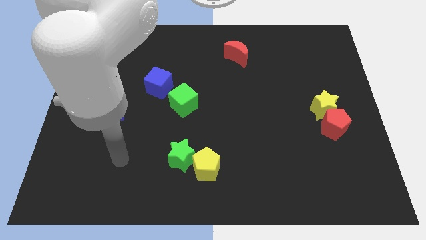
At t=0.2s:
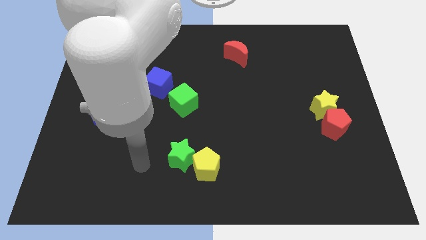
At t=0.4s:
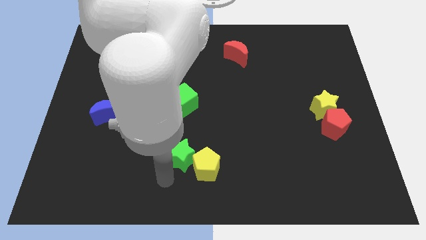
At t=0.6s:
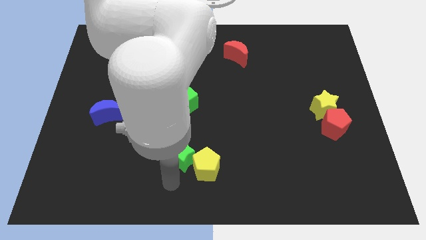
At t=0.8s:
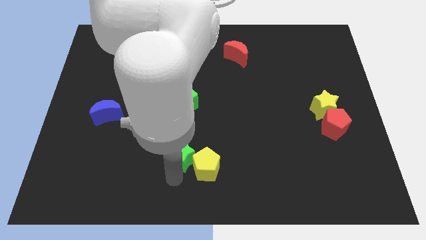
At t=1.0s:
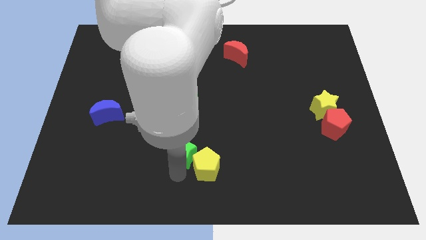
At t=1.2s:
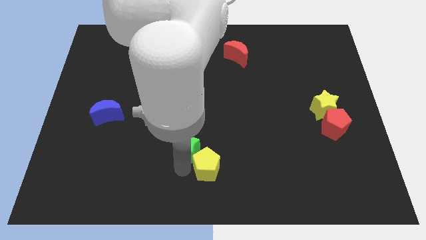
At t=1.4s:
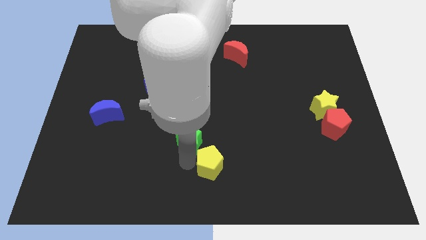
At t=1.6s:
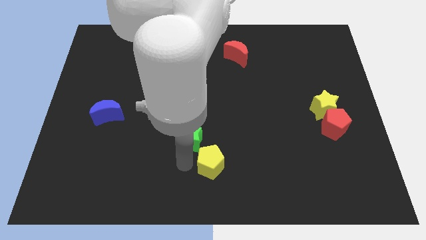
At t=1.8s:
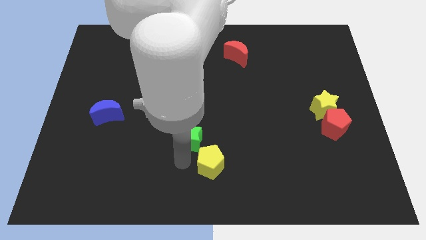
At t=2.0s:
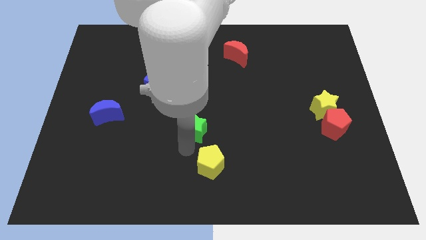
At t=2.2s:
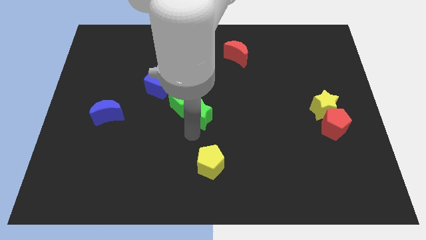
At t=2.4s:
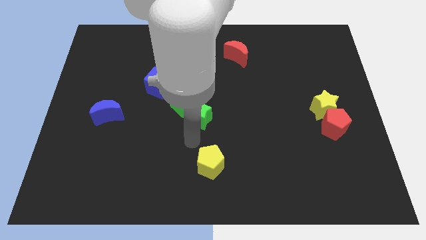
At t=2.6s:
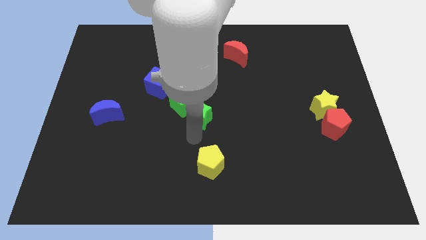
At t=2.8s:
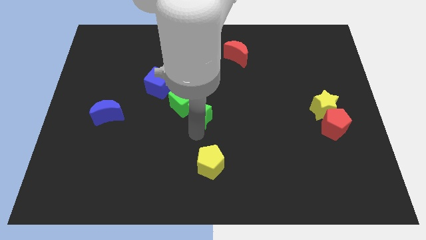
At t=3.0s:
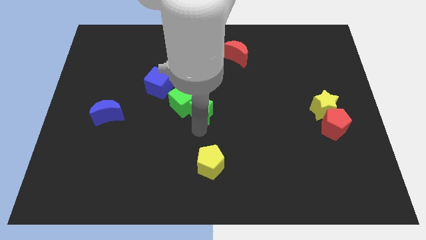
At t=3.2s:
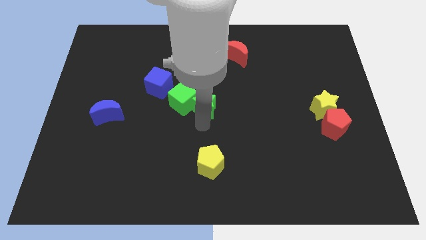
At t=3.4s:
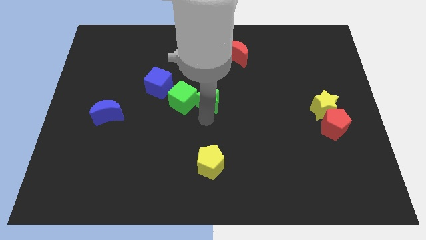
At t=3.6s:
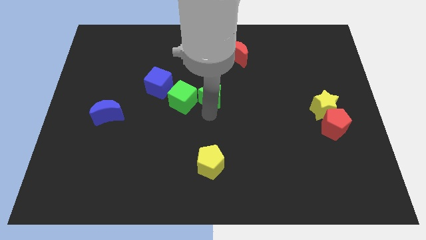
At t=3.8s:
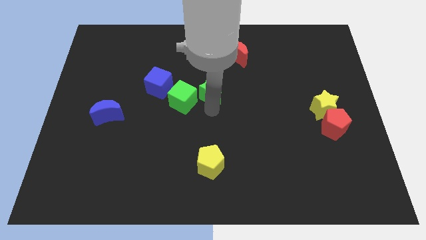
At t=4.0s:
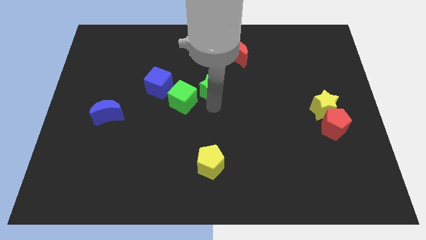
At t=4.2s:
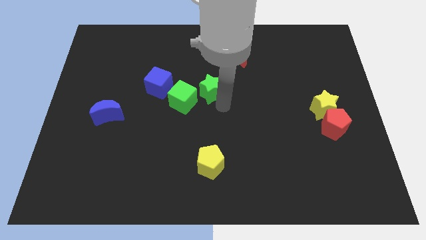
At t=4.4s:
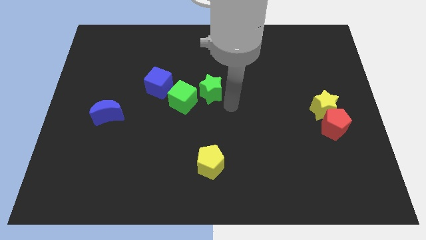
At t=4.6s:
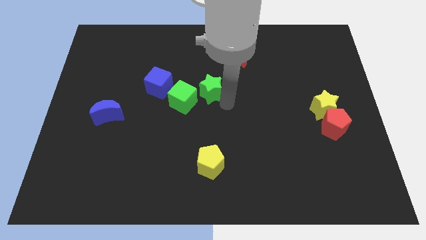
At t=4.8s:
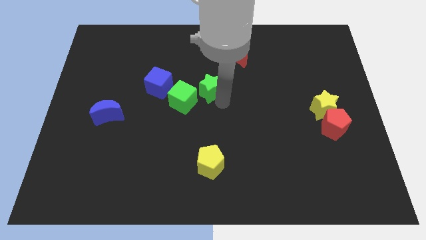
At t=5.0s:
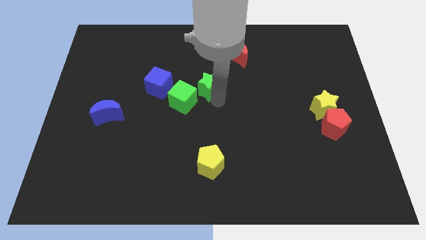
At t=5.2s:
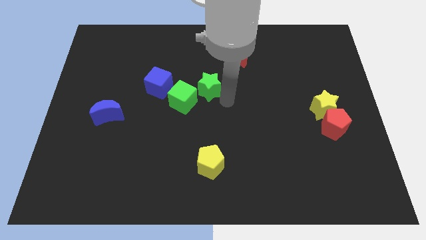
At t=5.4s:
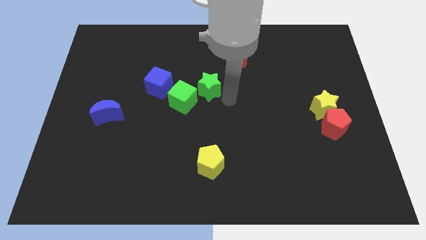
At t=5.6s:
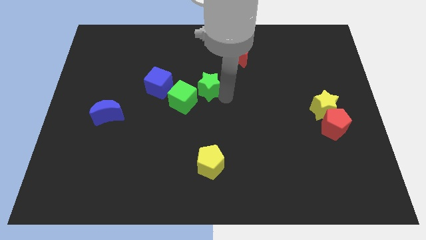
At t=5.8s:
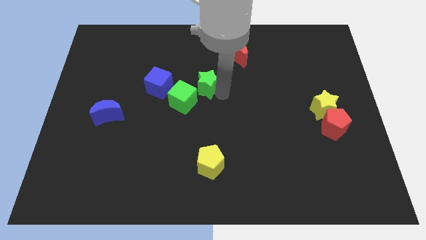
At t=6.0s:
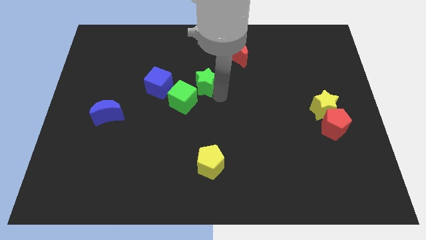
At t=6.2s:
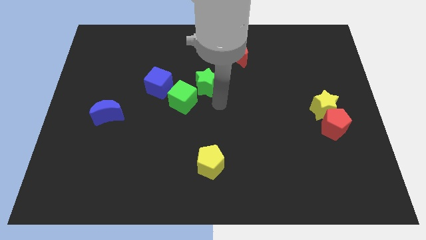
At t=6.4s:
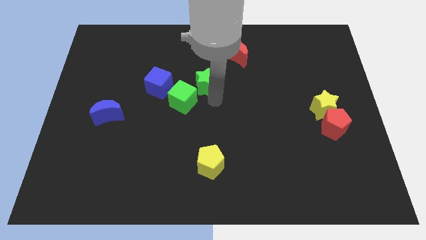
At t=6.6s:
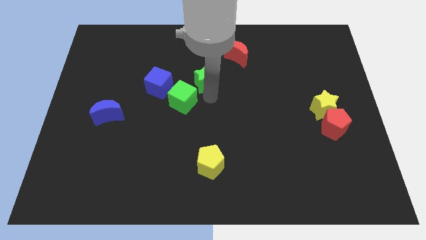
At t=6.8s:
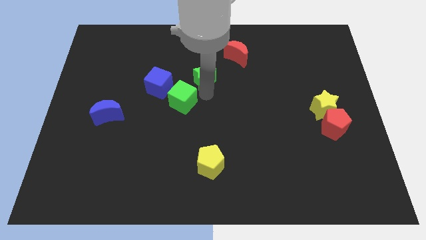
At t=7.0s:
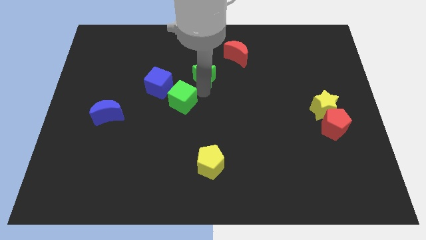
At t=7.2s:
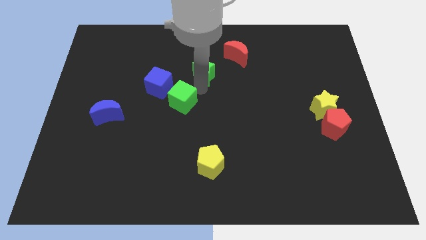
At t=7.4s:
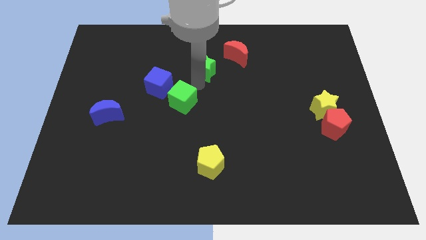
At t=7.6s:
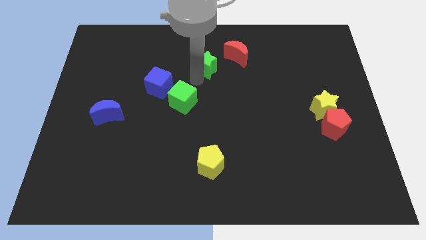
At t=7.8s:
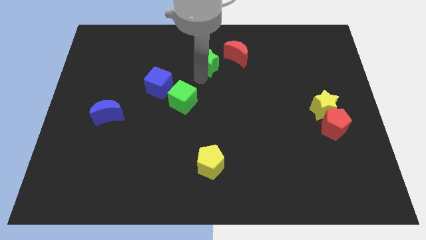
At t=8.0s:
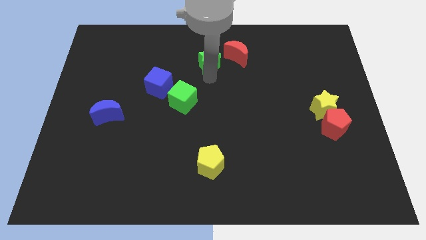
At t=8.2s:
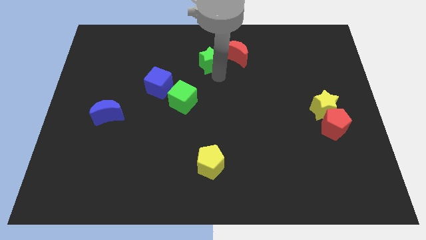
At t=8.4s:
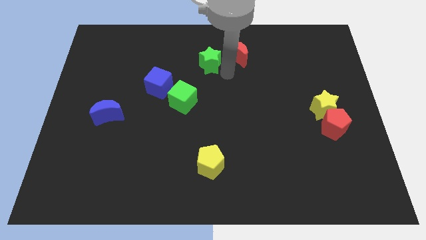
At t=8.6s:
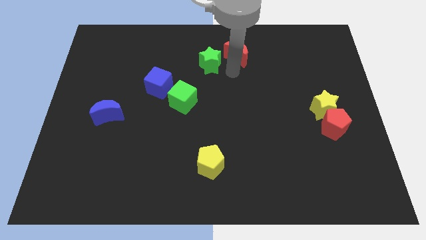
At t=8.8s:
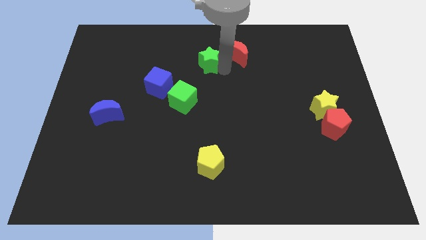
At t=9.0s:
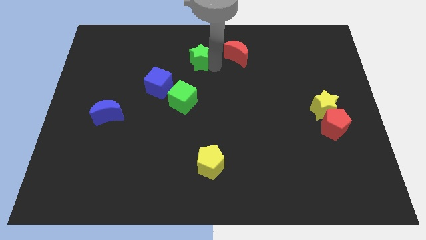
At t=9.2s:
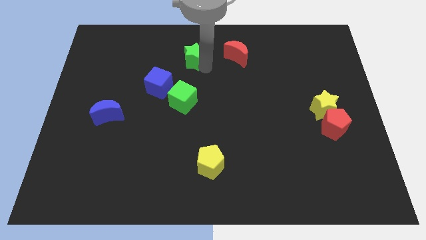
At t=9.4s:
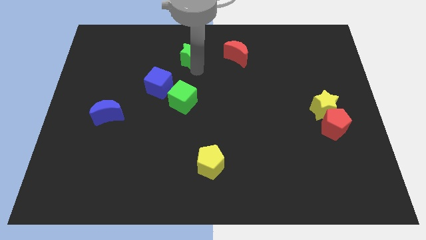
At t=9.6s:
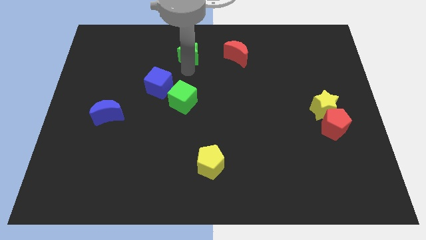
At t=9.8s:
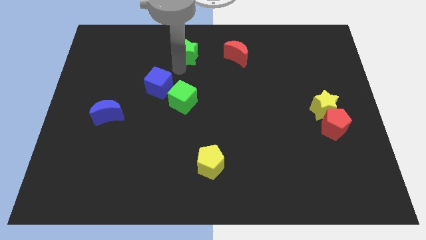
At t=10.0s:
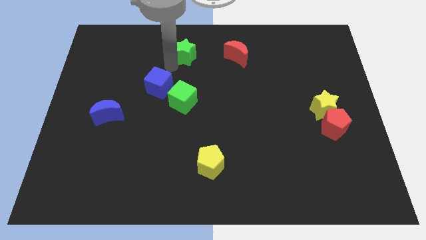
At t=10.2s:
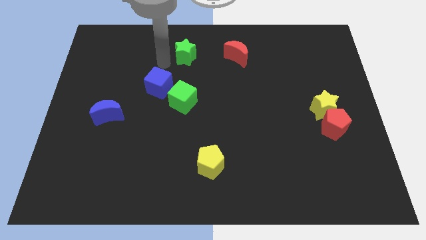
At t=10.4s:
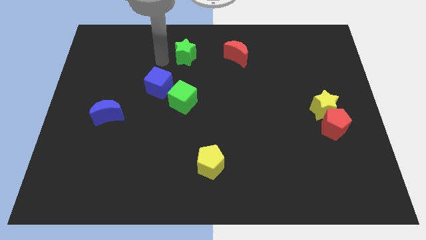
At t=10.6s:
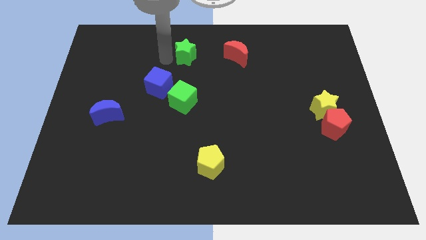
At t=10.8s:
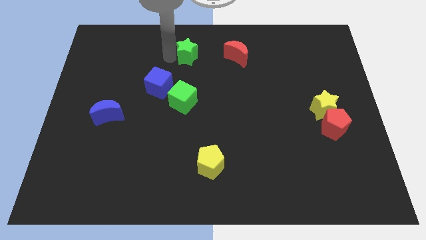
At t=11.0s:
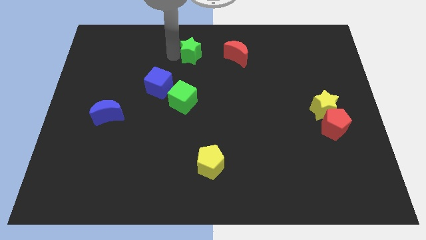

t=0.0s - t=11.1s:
push the green star to the towards your base

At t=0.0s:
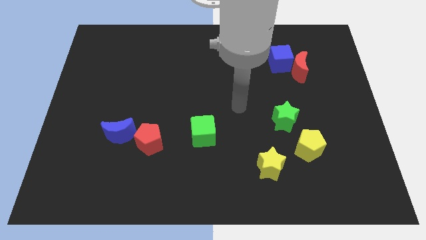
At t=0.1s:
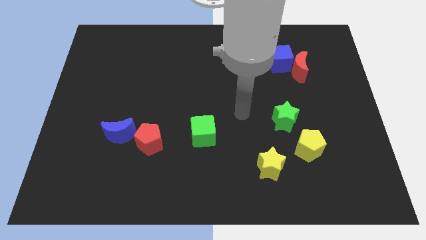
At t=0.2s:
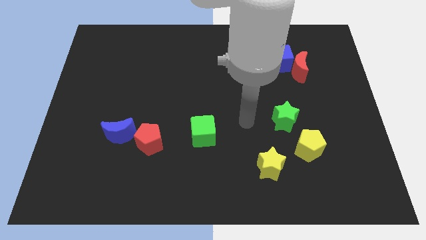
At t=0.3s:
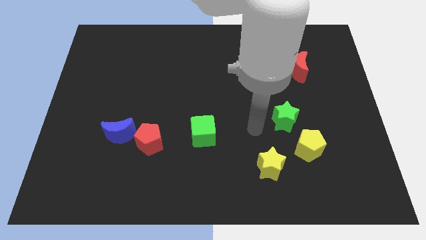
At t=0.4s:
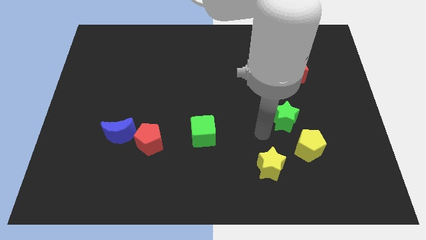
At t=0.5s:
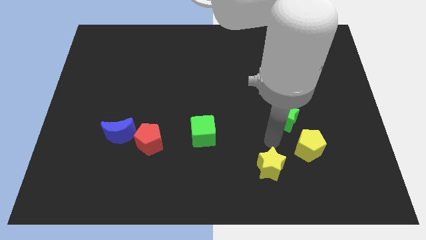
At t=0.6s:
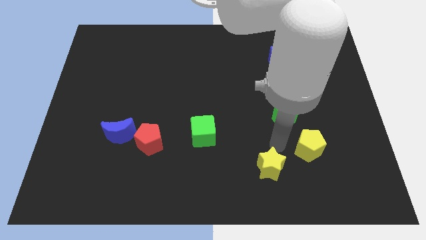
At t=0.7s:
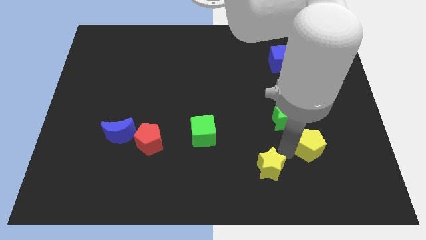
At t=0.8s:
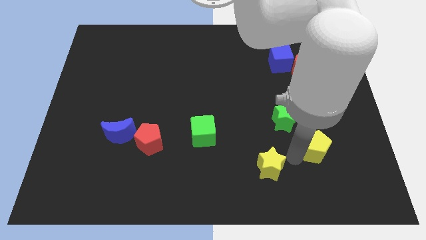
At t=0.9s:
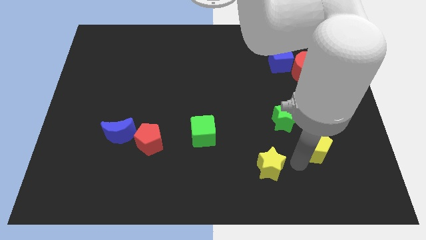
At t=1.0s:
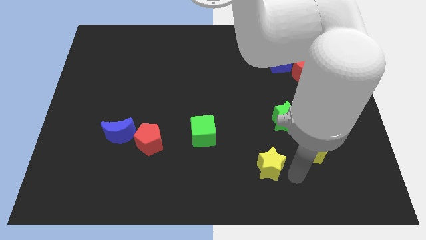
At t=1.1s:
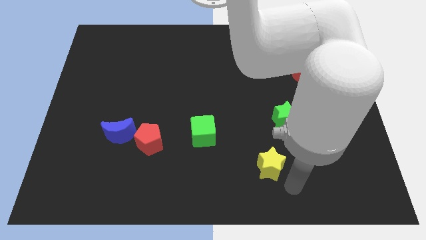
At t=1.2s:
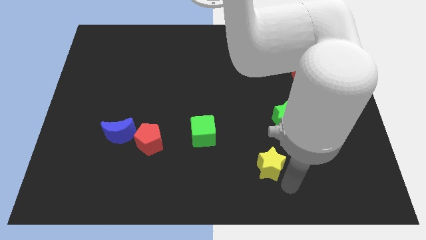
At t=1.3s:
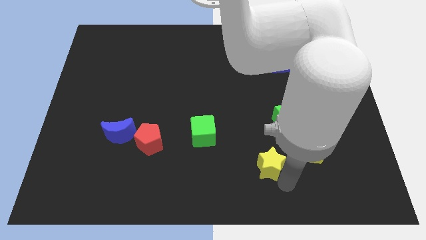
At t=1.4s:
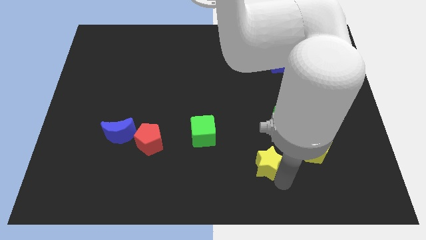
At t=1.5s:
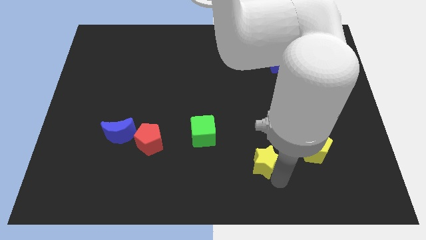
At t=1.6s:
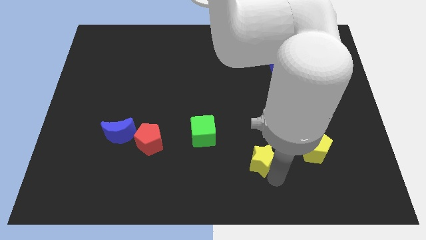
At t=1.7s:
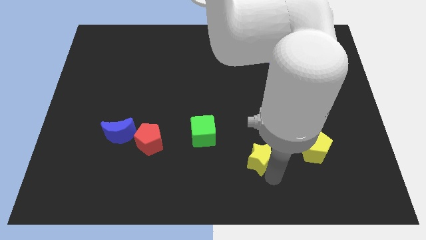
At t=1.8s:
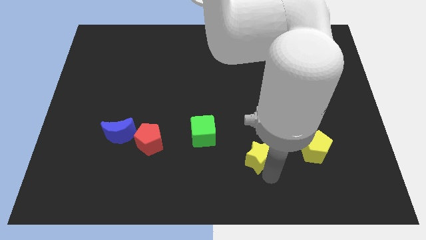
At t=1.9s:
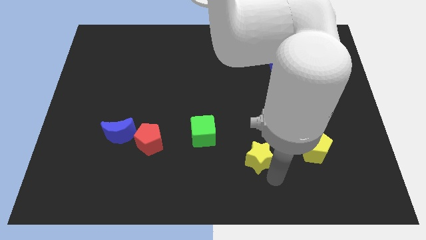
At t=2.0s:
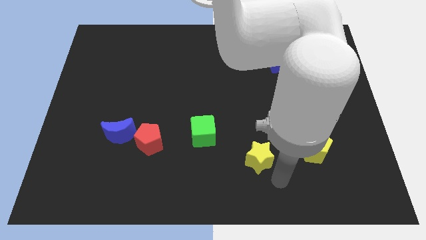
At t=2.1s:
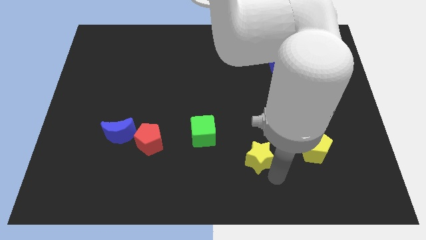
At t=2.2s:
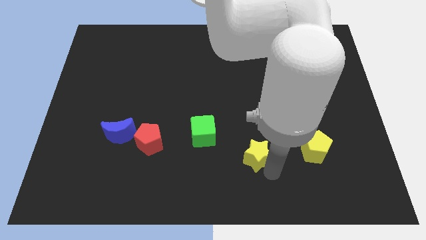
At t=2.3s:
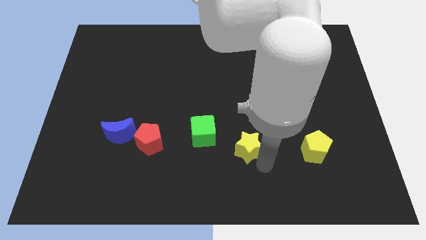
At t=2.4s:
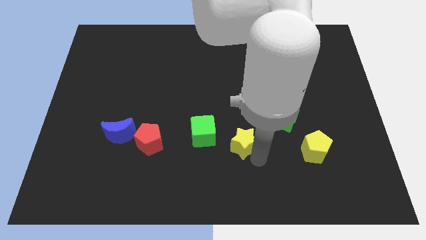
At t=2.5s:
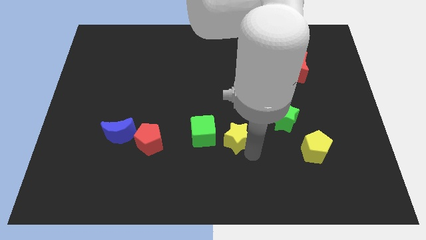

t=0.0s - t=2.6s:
push the yellow star to the middle of the board
